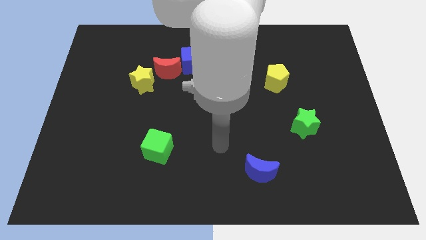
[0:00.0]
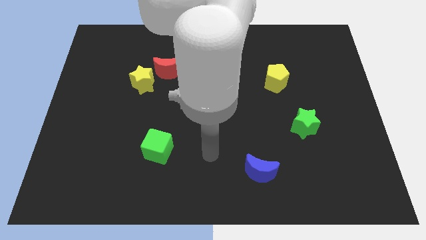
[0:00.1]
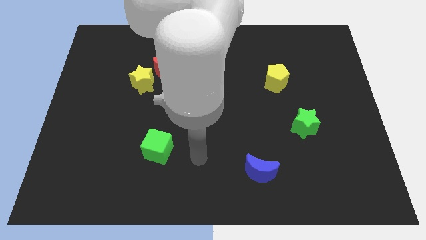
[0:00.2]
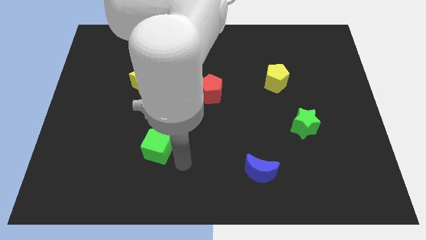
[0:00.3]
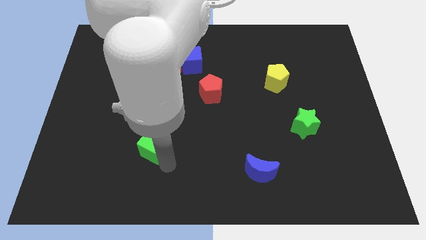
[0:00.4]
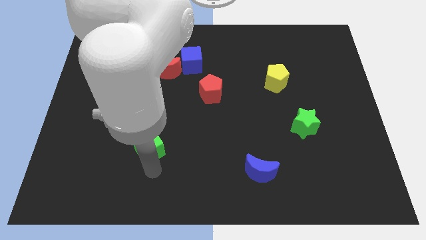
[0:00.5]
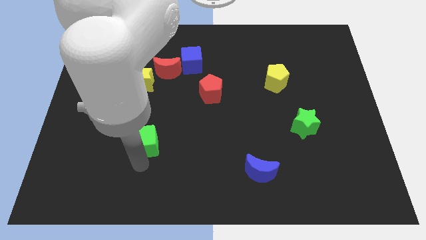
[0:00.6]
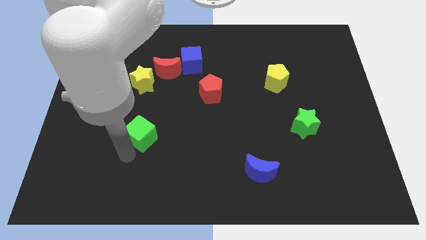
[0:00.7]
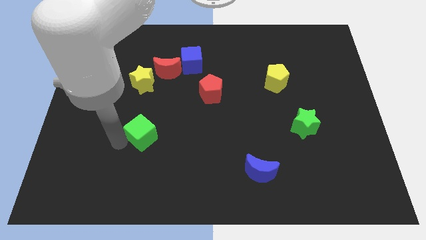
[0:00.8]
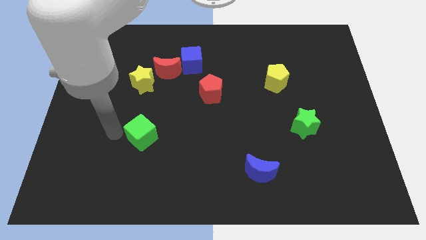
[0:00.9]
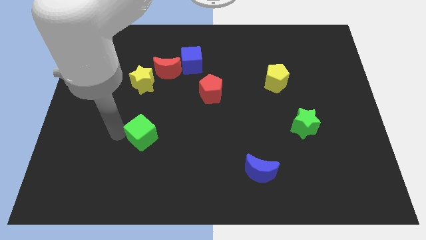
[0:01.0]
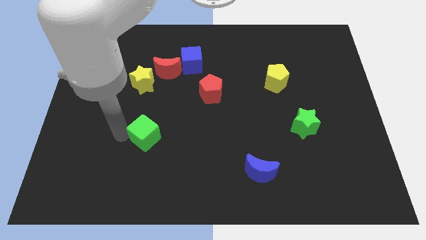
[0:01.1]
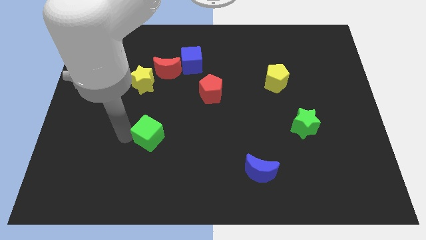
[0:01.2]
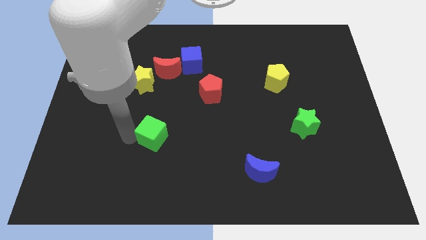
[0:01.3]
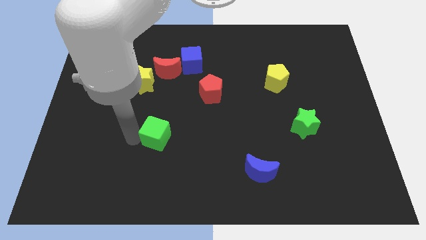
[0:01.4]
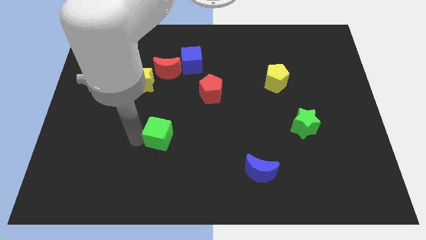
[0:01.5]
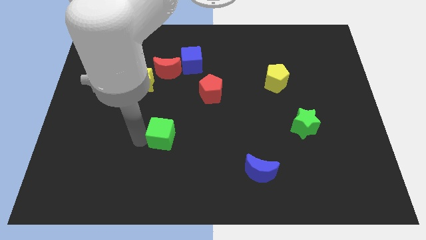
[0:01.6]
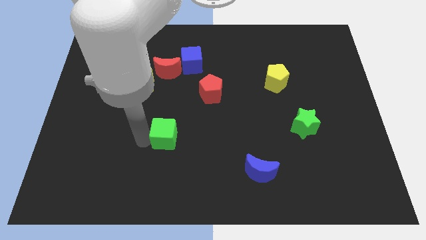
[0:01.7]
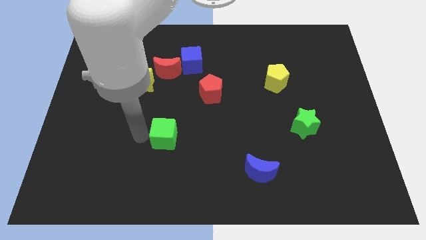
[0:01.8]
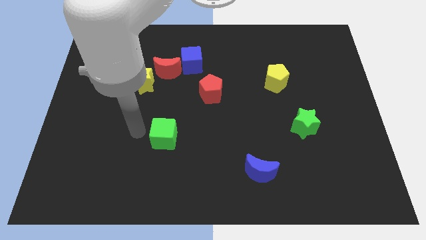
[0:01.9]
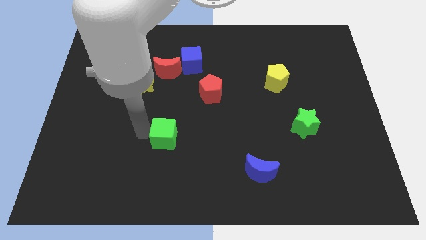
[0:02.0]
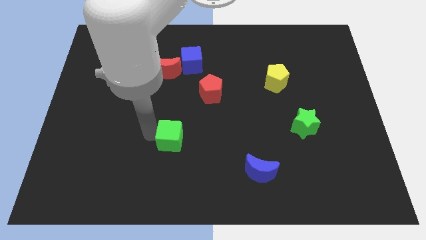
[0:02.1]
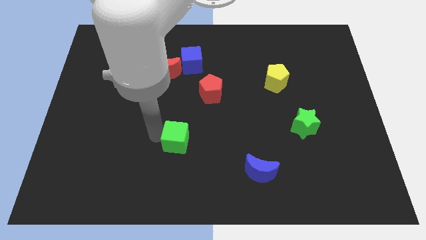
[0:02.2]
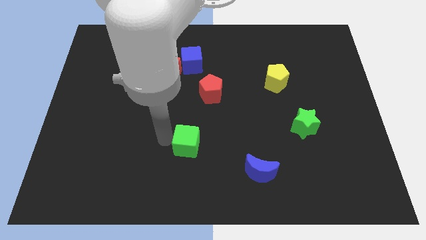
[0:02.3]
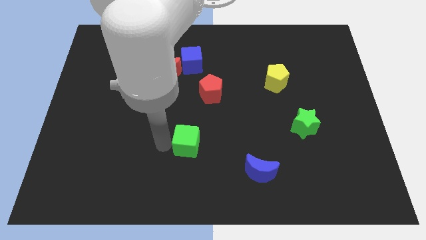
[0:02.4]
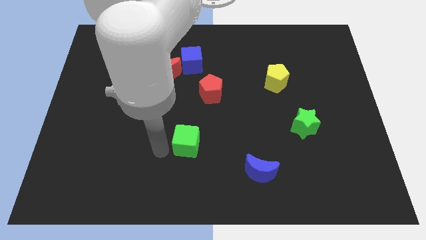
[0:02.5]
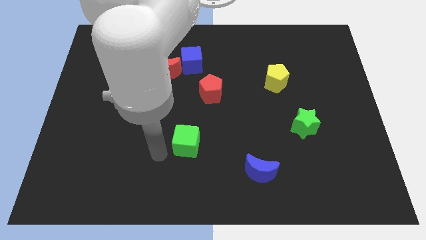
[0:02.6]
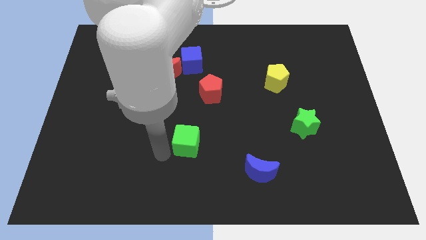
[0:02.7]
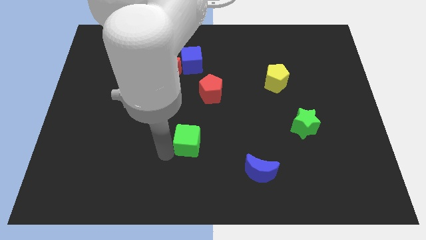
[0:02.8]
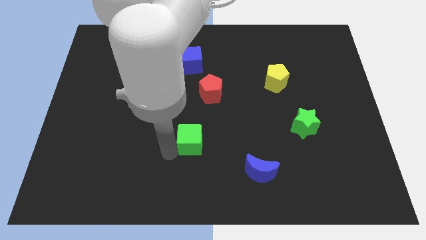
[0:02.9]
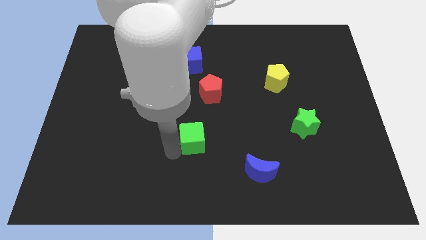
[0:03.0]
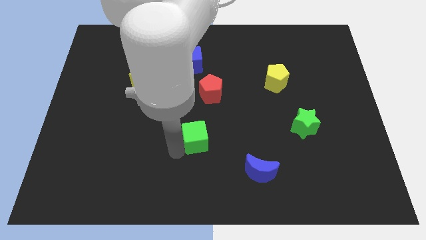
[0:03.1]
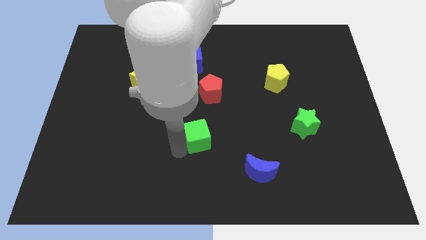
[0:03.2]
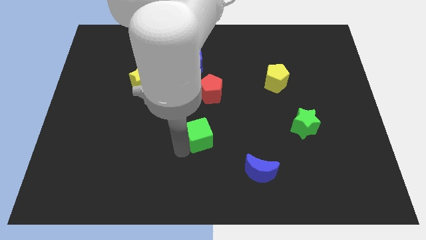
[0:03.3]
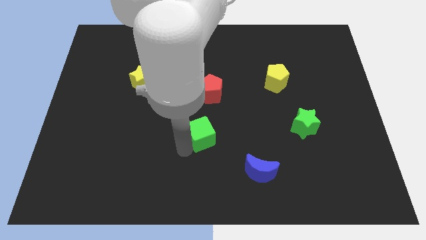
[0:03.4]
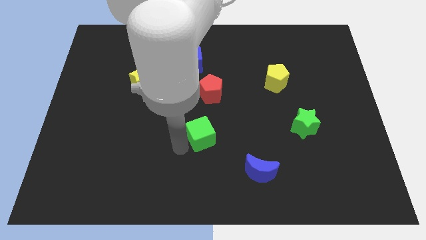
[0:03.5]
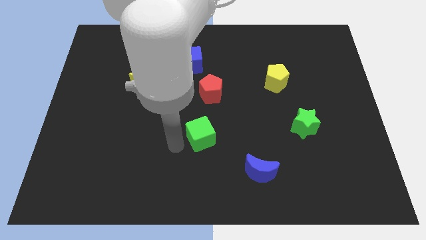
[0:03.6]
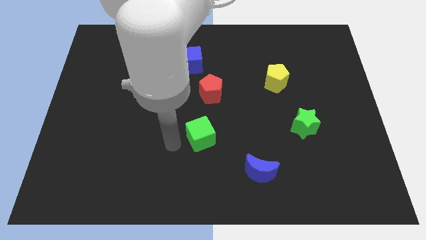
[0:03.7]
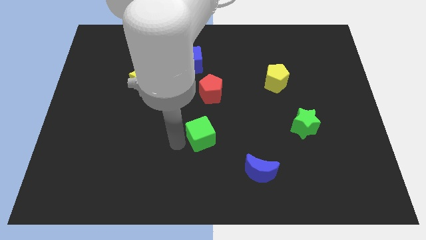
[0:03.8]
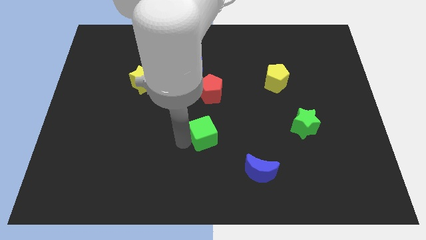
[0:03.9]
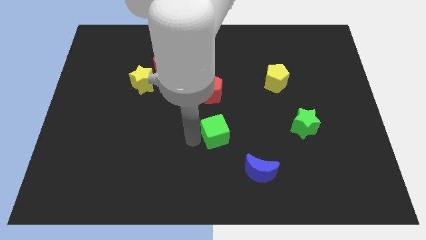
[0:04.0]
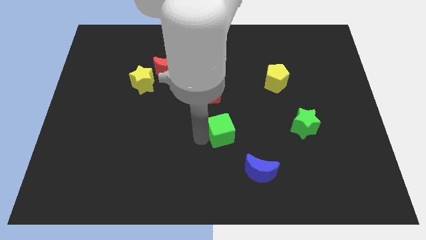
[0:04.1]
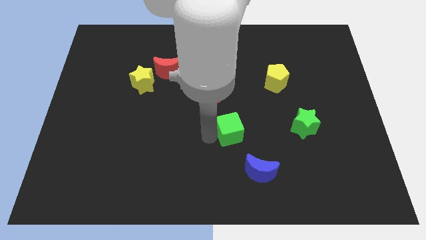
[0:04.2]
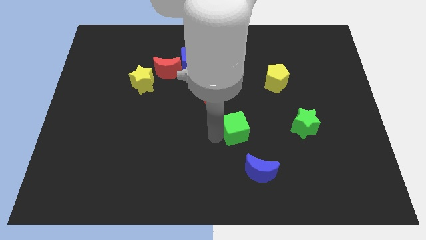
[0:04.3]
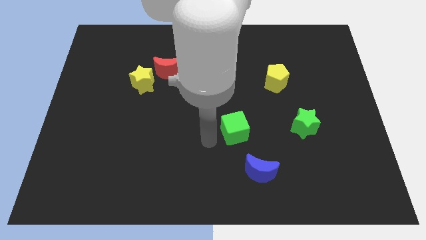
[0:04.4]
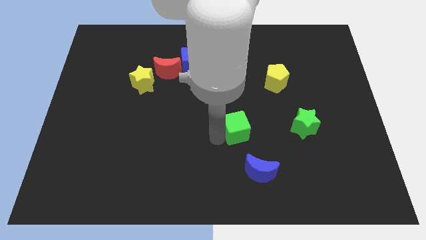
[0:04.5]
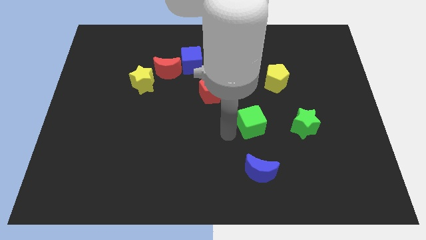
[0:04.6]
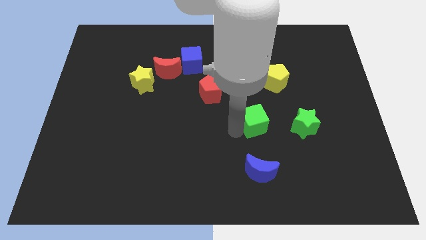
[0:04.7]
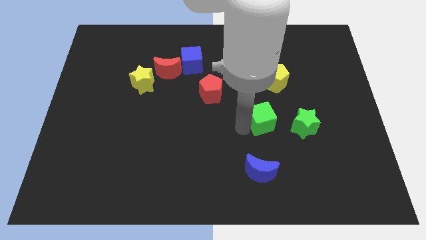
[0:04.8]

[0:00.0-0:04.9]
move the green cube below the yellow pentagon

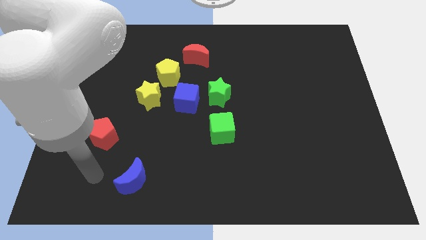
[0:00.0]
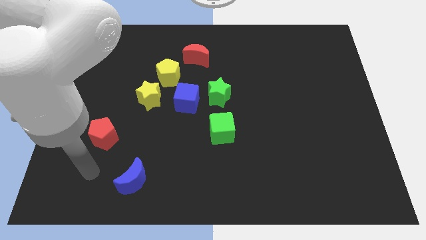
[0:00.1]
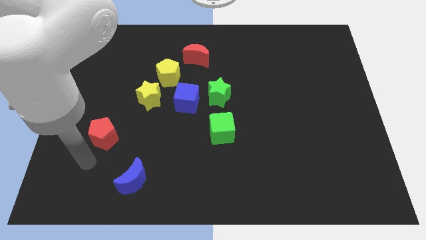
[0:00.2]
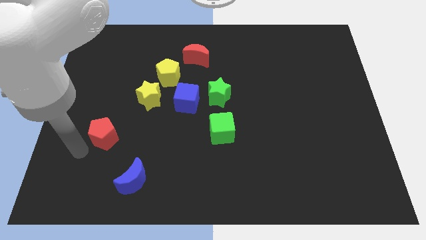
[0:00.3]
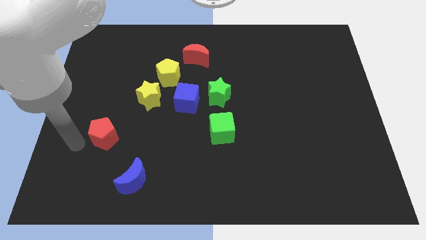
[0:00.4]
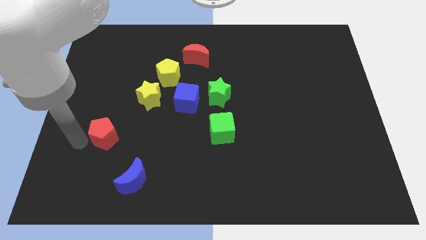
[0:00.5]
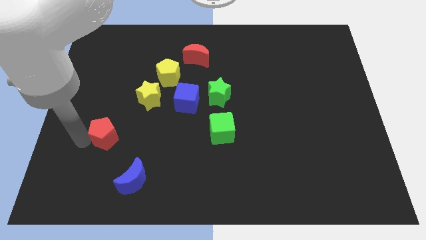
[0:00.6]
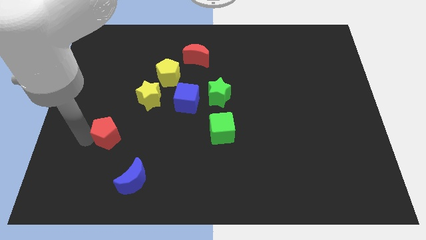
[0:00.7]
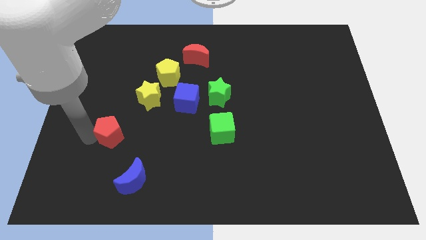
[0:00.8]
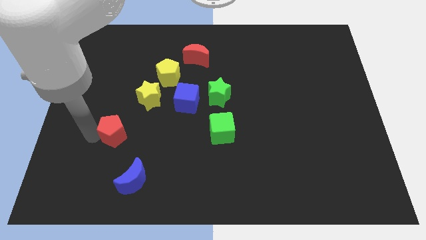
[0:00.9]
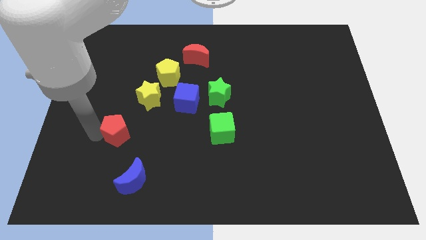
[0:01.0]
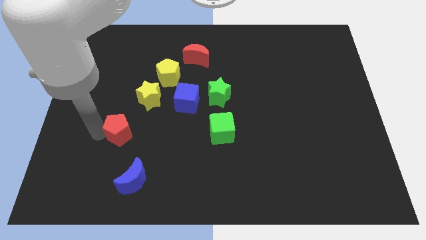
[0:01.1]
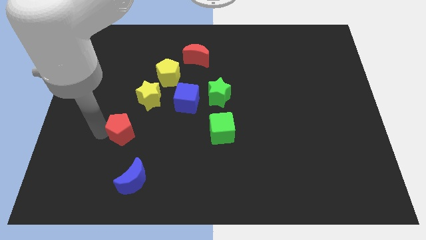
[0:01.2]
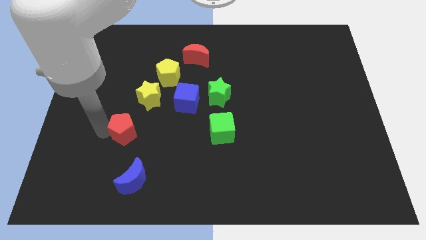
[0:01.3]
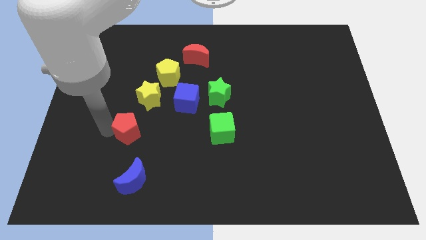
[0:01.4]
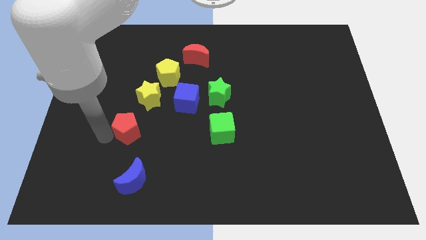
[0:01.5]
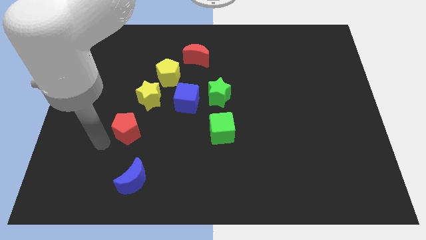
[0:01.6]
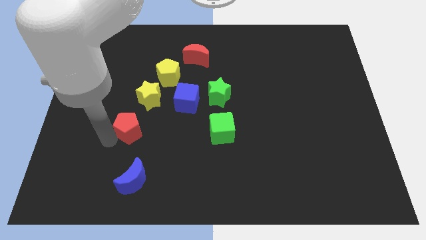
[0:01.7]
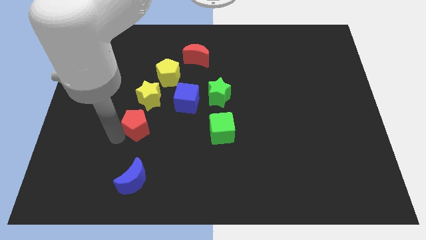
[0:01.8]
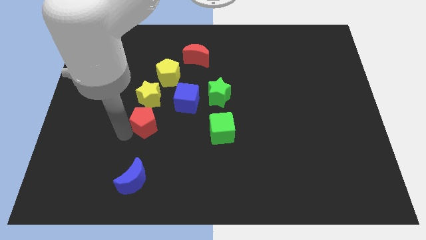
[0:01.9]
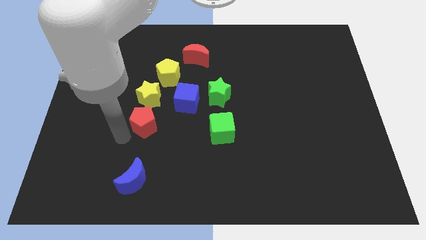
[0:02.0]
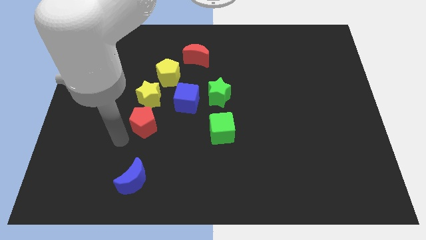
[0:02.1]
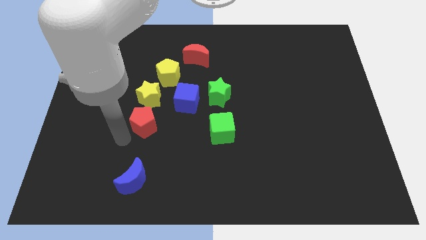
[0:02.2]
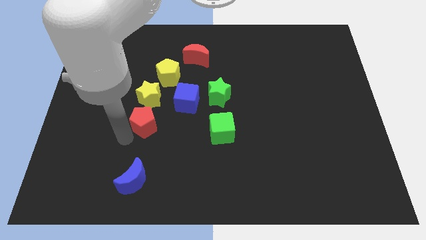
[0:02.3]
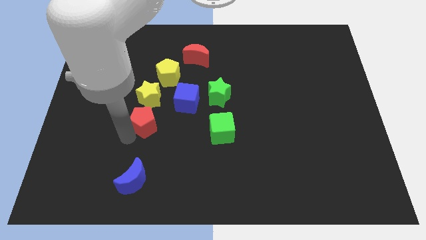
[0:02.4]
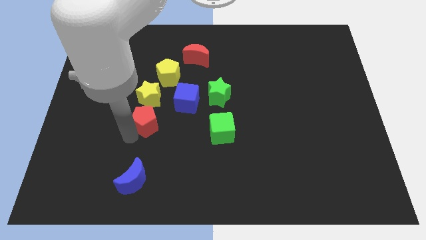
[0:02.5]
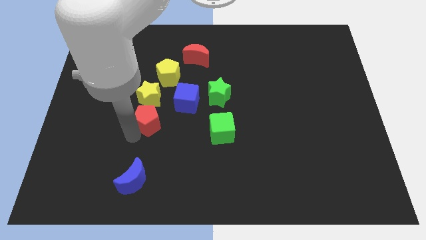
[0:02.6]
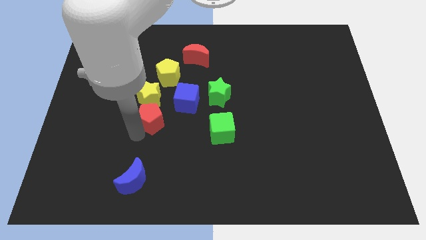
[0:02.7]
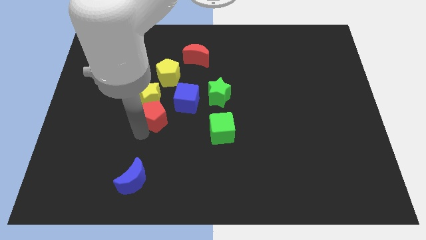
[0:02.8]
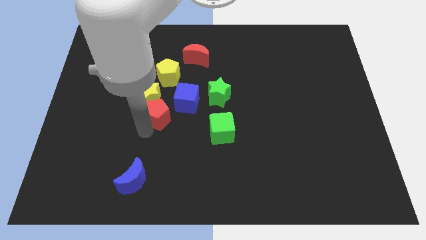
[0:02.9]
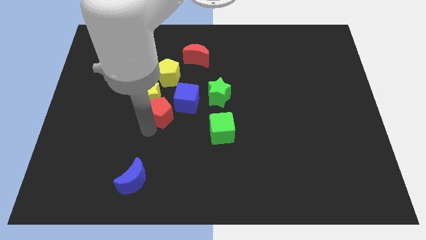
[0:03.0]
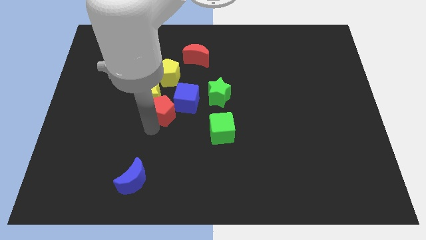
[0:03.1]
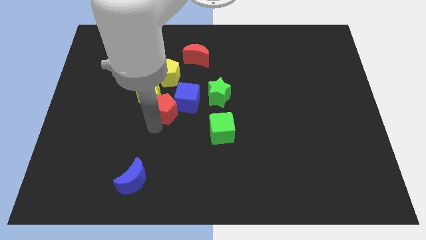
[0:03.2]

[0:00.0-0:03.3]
move the red pentagon just left of the green star
